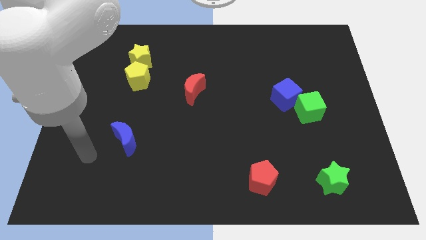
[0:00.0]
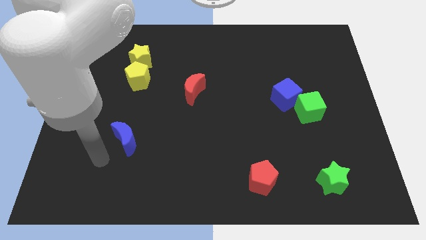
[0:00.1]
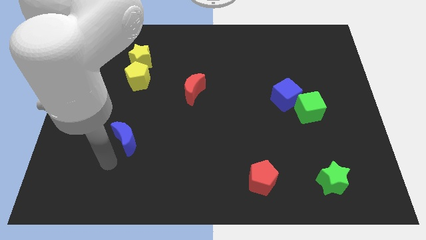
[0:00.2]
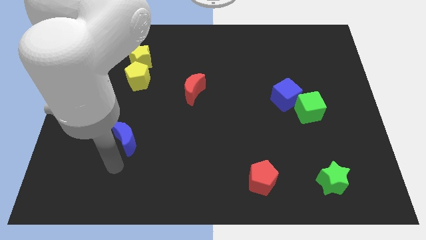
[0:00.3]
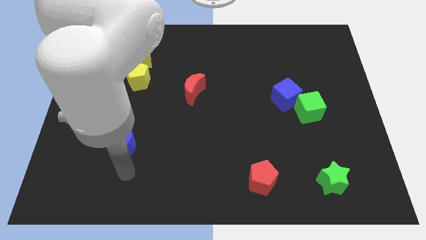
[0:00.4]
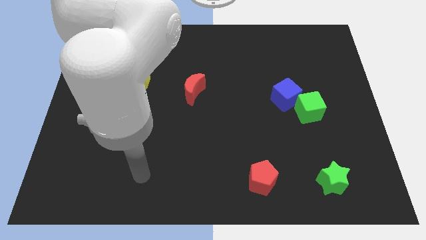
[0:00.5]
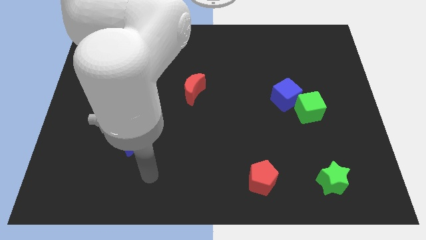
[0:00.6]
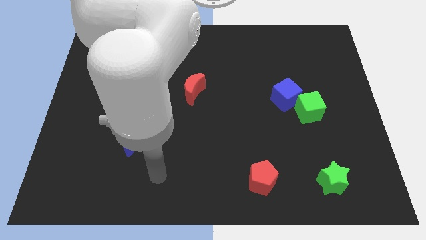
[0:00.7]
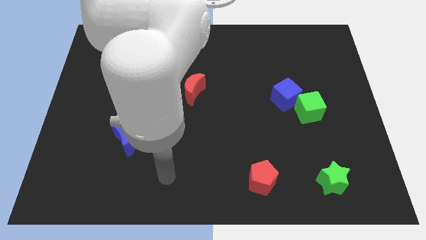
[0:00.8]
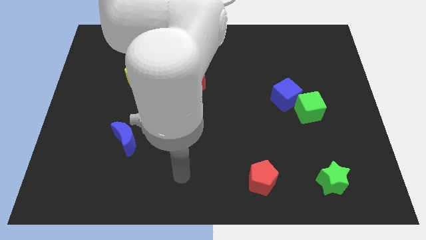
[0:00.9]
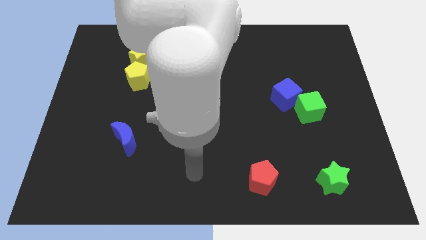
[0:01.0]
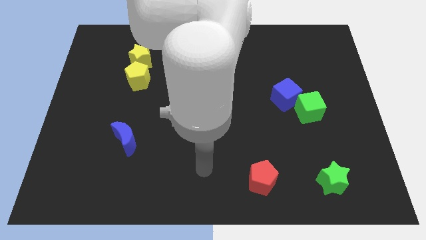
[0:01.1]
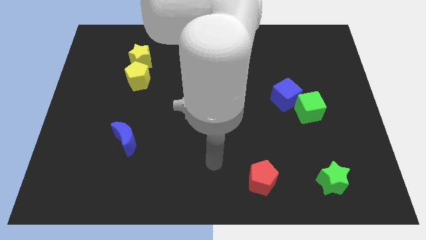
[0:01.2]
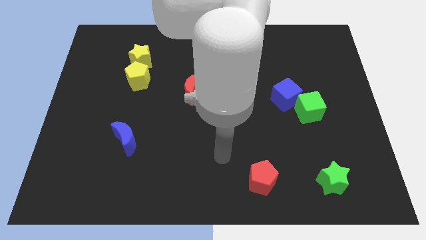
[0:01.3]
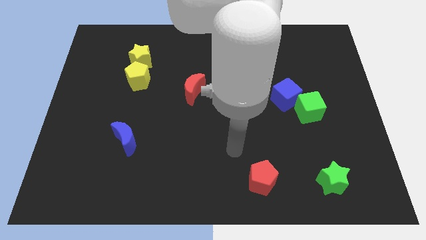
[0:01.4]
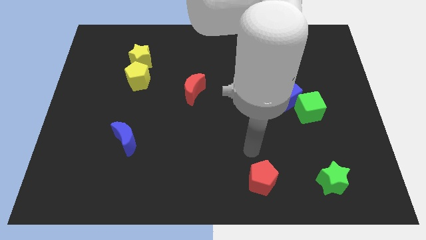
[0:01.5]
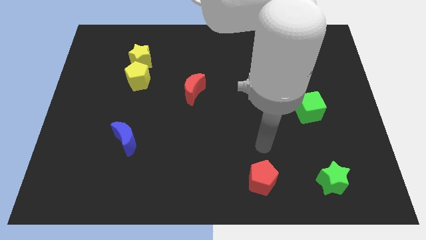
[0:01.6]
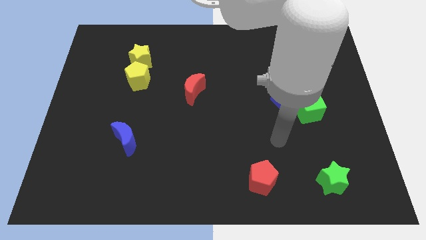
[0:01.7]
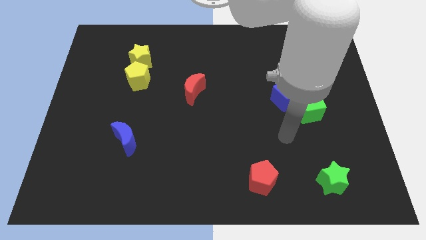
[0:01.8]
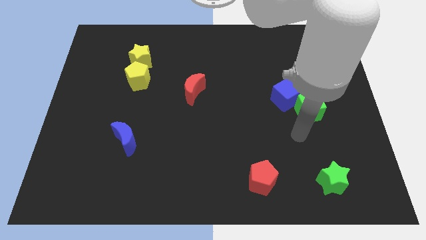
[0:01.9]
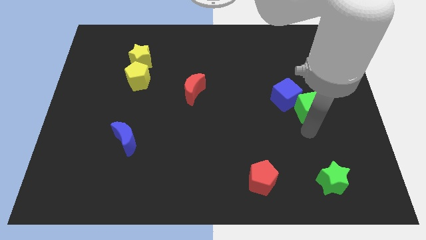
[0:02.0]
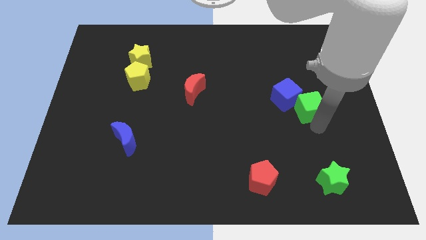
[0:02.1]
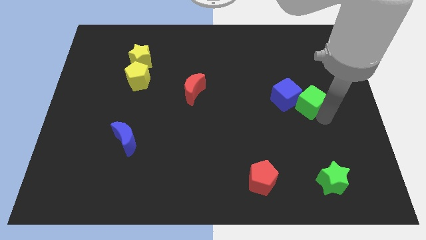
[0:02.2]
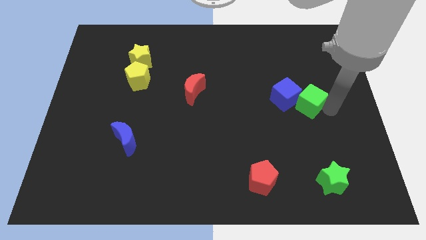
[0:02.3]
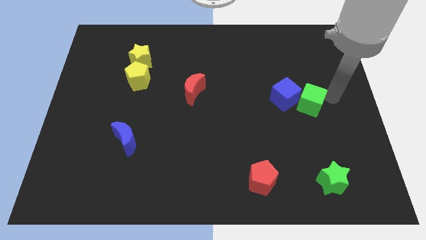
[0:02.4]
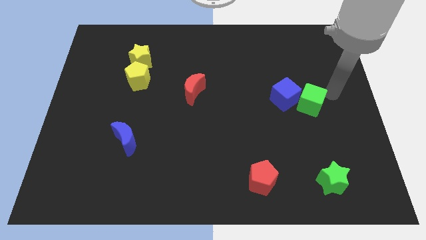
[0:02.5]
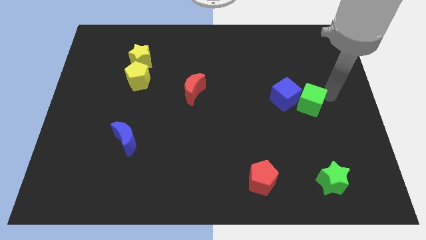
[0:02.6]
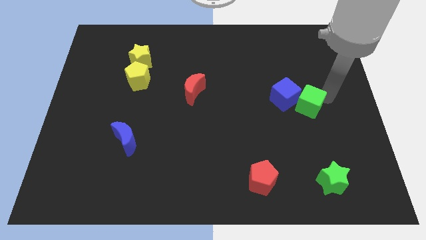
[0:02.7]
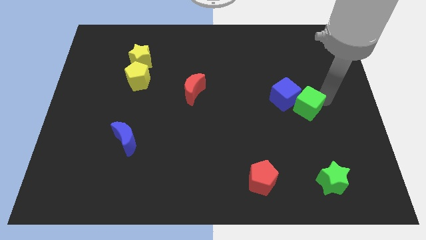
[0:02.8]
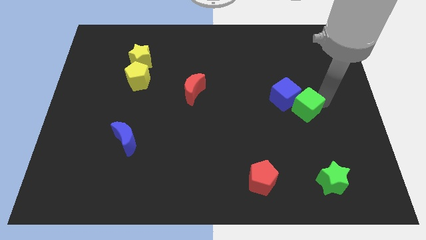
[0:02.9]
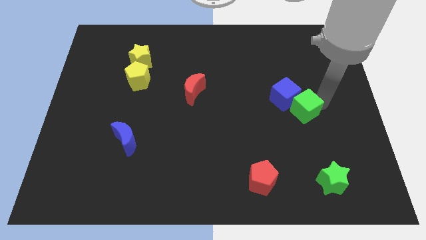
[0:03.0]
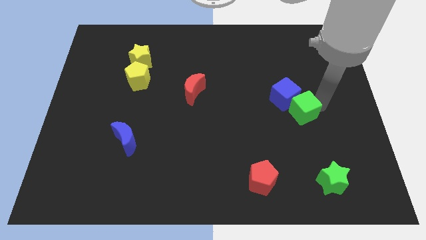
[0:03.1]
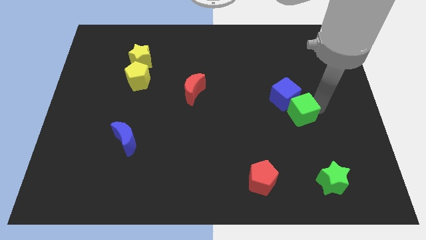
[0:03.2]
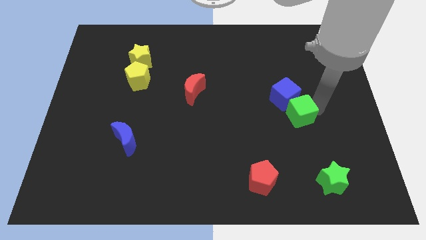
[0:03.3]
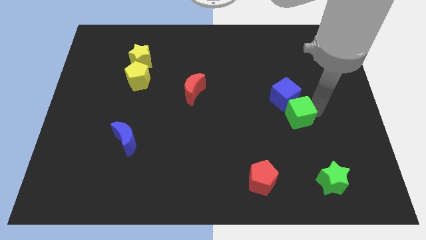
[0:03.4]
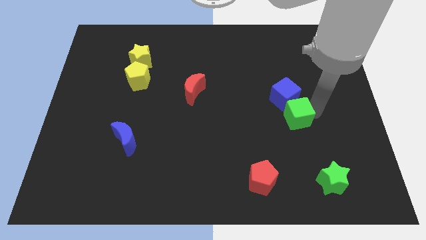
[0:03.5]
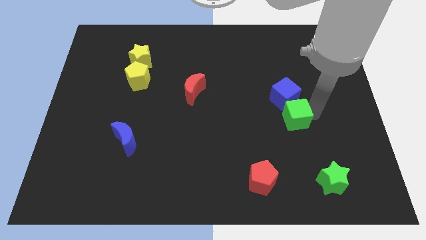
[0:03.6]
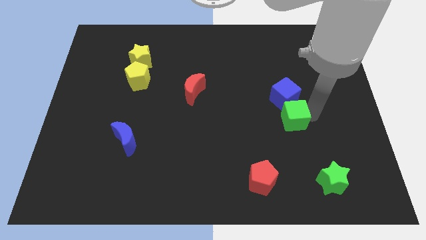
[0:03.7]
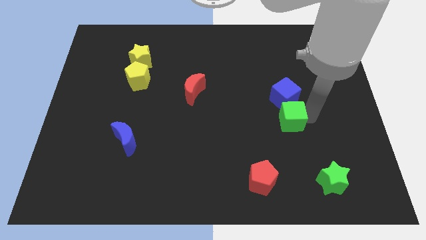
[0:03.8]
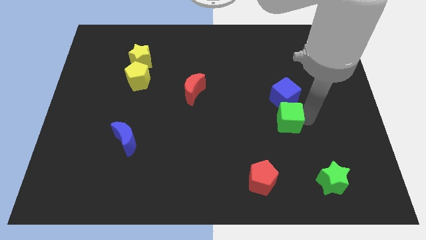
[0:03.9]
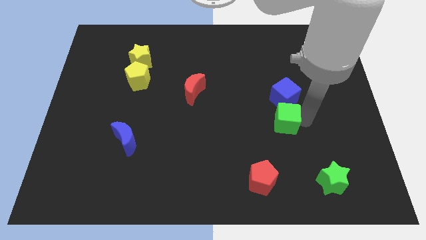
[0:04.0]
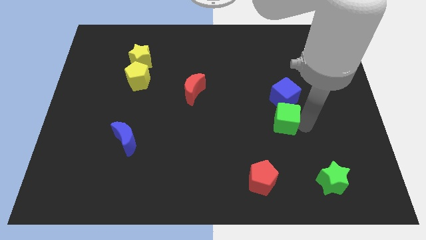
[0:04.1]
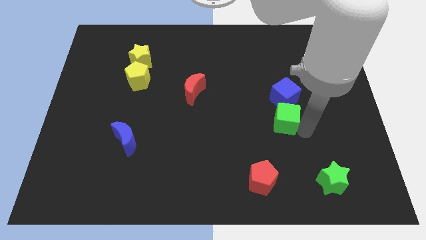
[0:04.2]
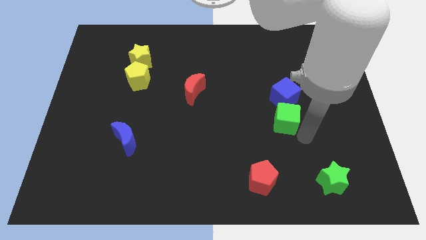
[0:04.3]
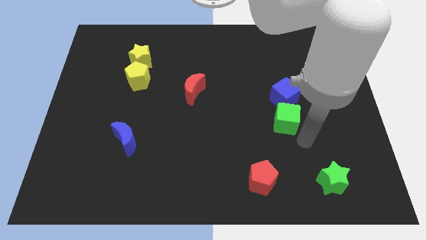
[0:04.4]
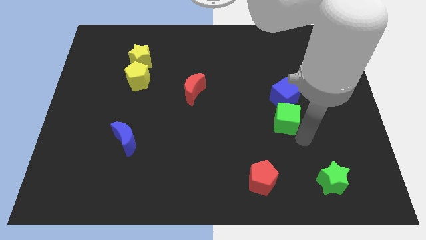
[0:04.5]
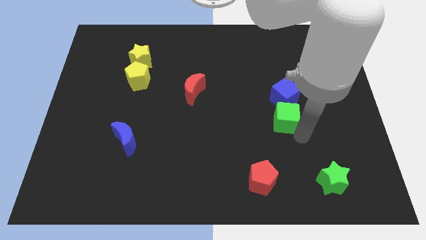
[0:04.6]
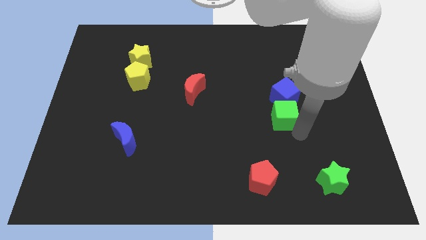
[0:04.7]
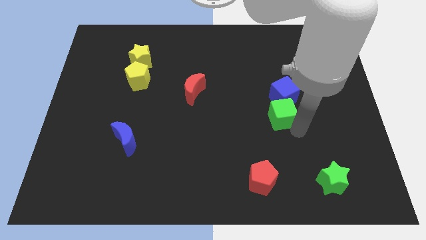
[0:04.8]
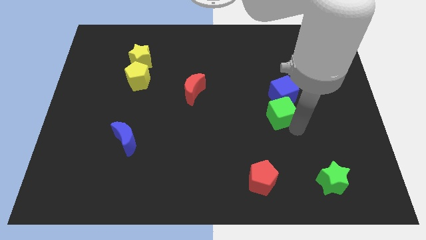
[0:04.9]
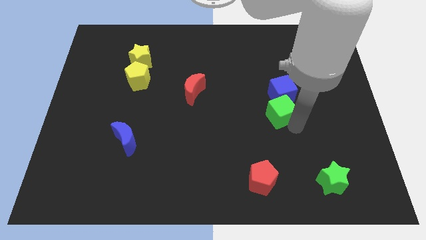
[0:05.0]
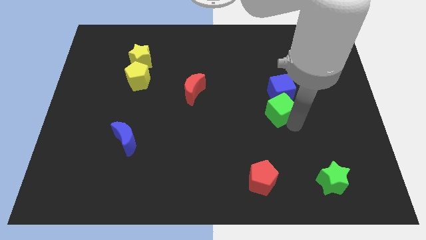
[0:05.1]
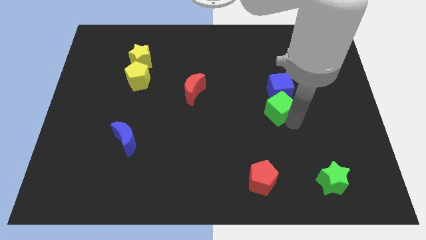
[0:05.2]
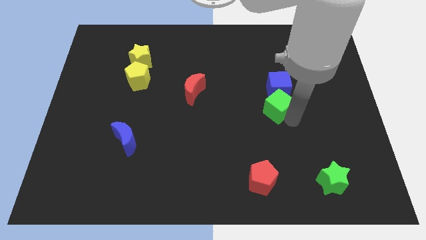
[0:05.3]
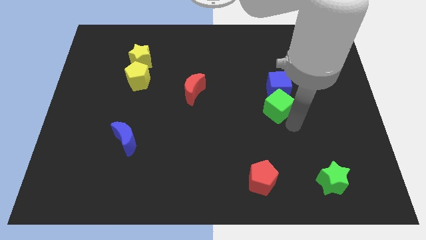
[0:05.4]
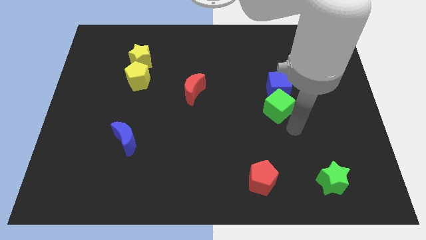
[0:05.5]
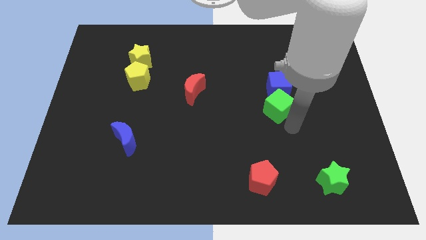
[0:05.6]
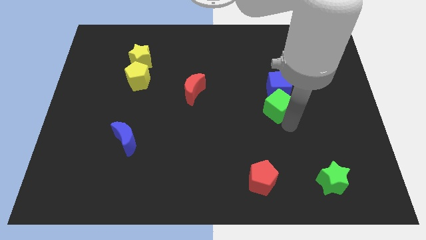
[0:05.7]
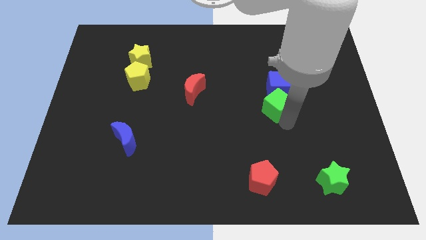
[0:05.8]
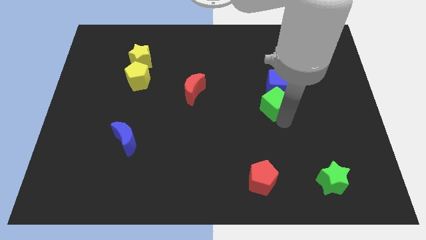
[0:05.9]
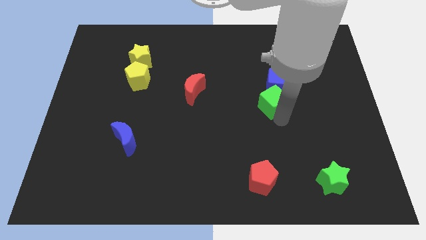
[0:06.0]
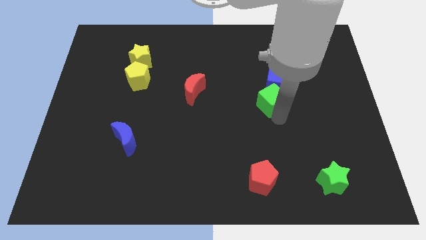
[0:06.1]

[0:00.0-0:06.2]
move the green cube upwards and then left a bit

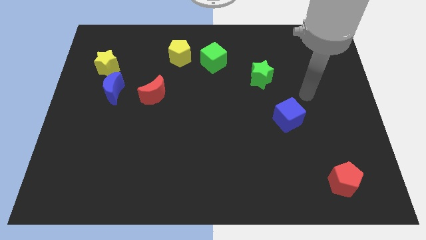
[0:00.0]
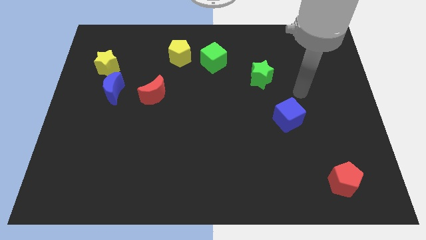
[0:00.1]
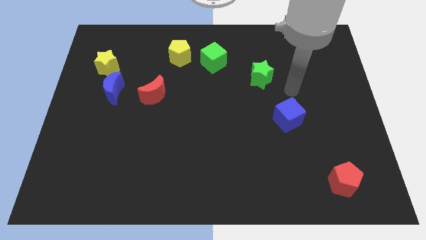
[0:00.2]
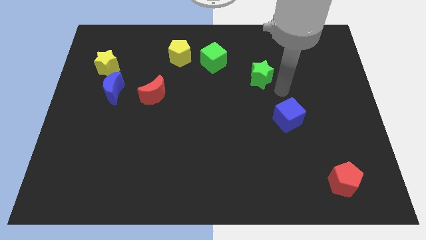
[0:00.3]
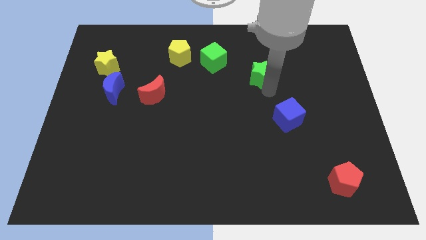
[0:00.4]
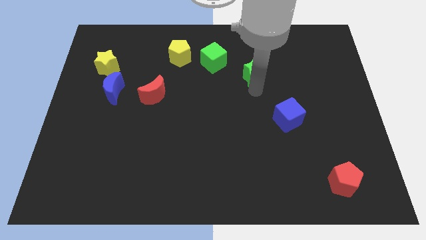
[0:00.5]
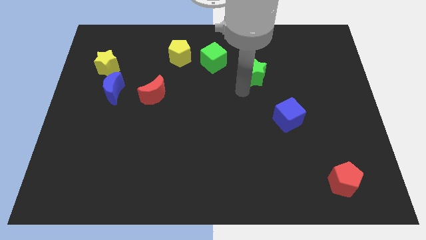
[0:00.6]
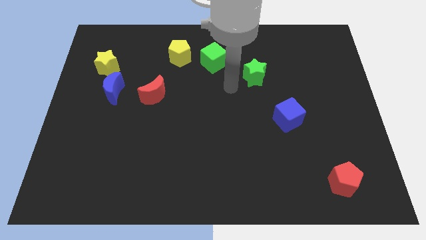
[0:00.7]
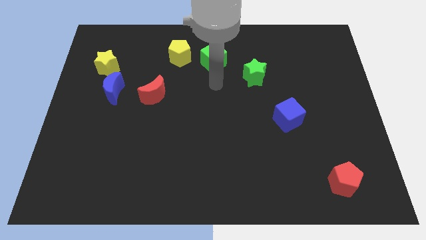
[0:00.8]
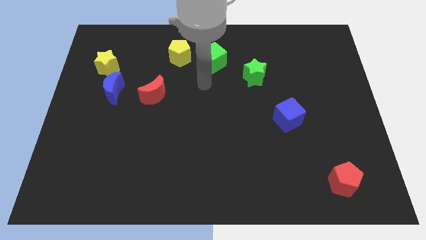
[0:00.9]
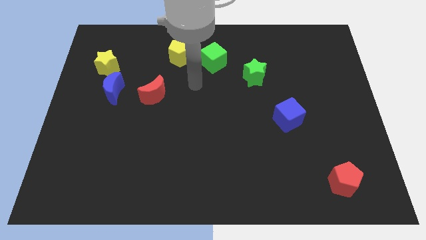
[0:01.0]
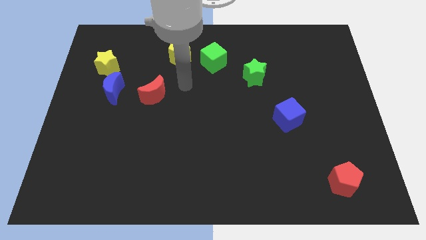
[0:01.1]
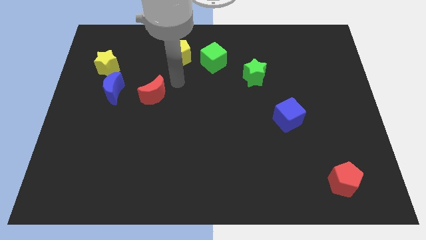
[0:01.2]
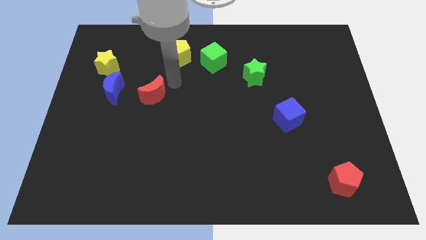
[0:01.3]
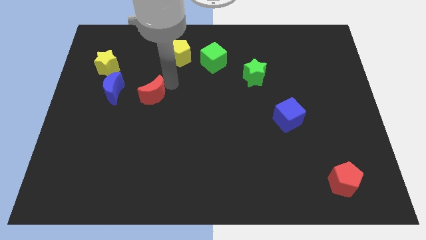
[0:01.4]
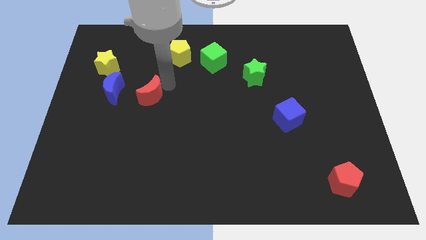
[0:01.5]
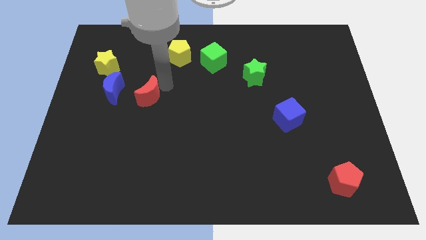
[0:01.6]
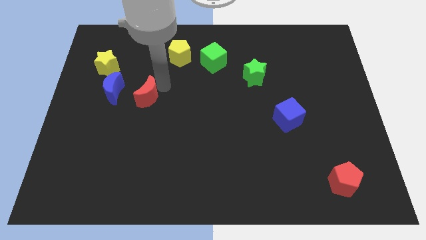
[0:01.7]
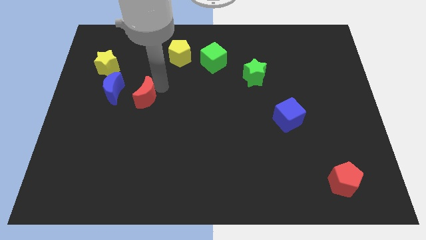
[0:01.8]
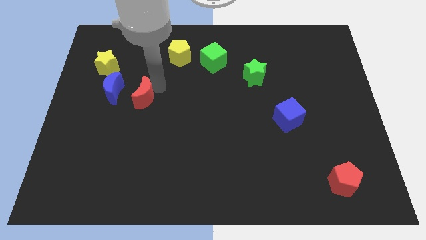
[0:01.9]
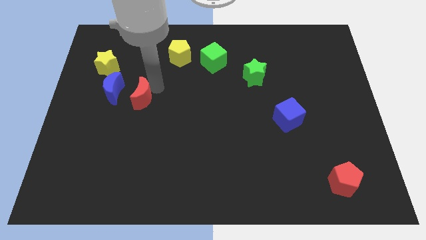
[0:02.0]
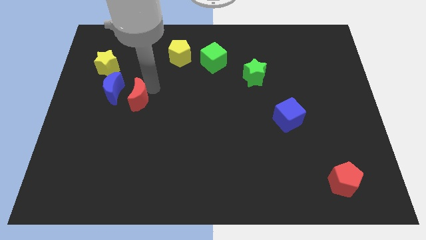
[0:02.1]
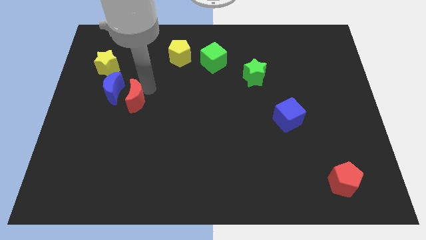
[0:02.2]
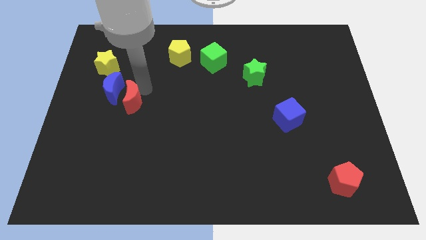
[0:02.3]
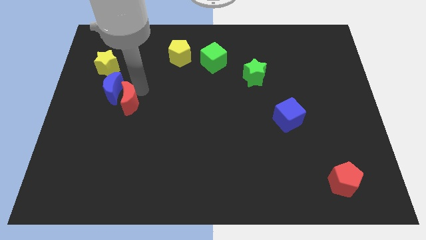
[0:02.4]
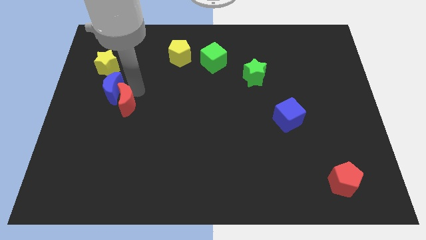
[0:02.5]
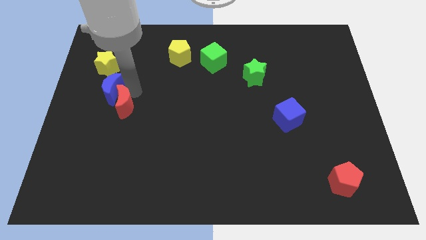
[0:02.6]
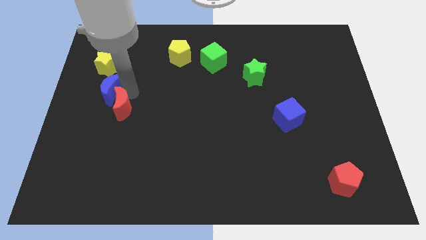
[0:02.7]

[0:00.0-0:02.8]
slide the red moon down and then to the left a little bit
